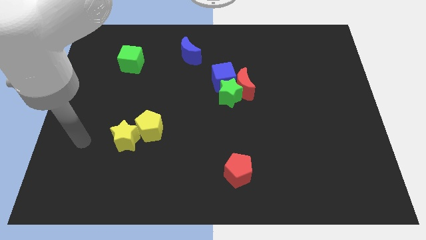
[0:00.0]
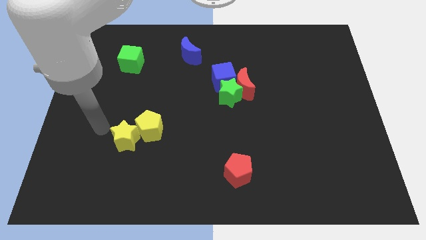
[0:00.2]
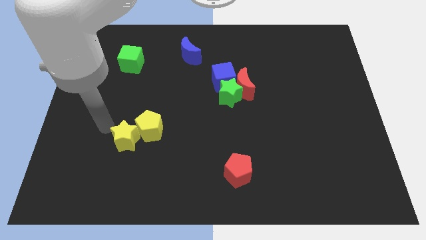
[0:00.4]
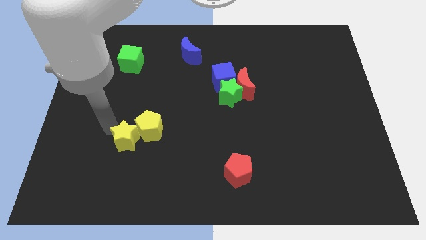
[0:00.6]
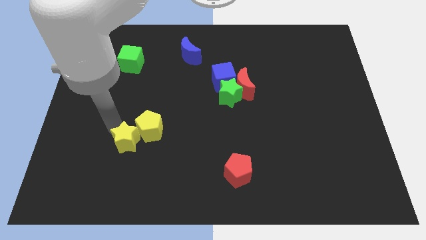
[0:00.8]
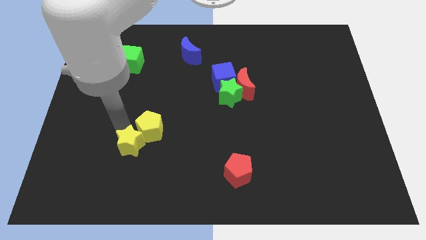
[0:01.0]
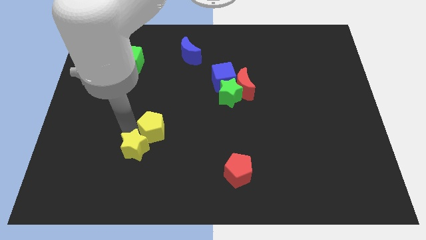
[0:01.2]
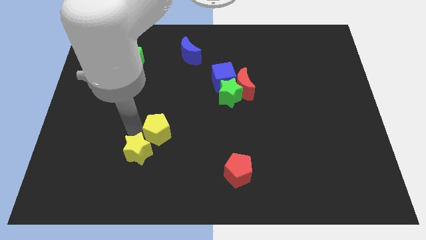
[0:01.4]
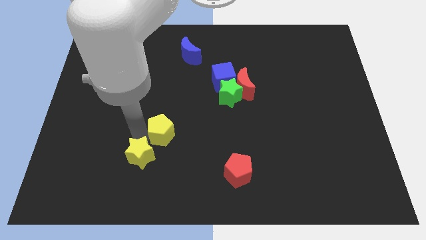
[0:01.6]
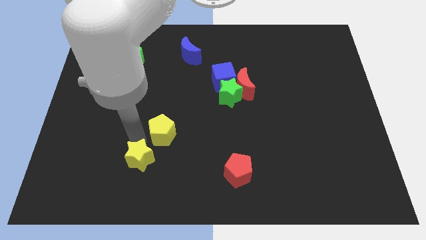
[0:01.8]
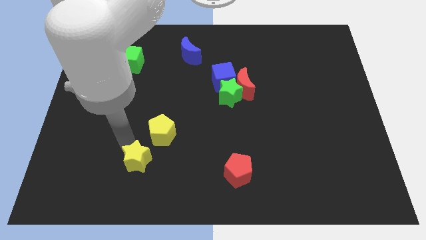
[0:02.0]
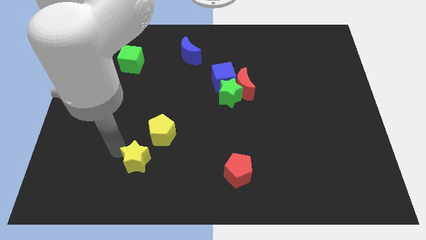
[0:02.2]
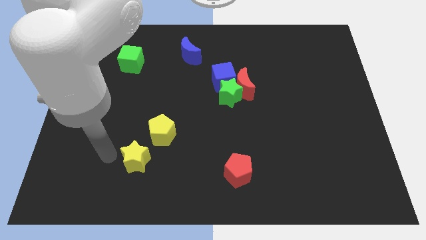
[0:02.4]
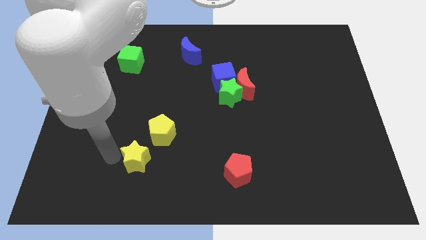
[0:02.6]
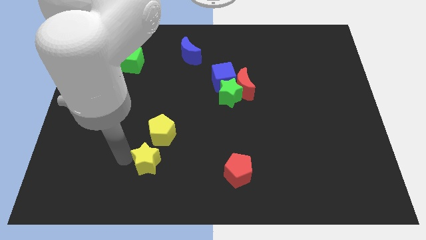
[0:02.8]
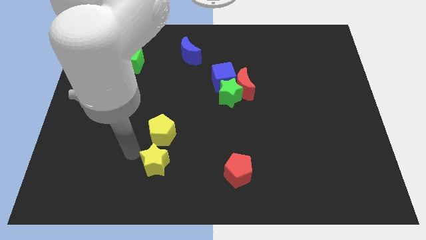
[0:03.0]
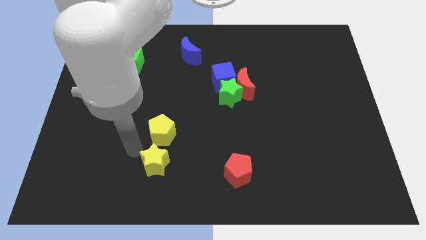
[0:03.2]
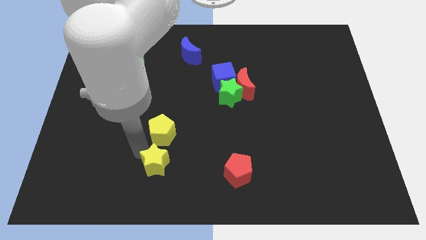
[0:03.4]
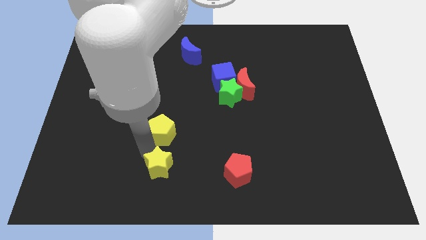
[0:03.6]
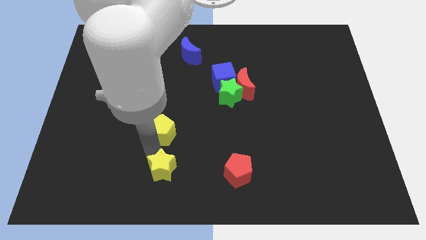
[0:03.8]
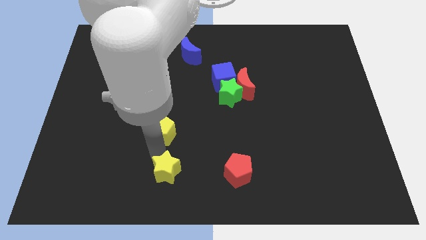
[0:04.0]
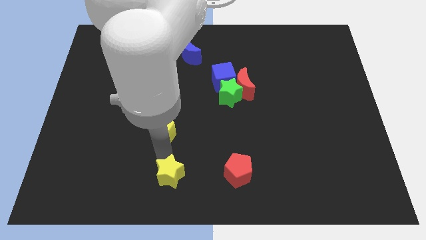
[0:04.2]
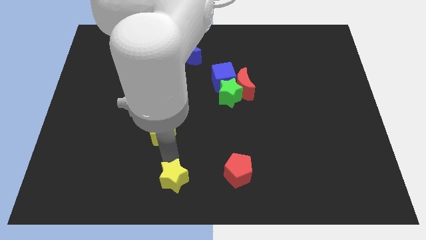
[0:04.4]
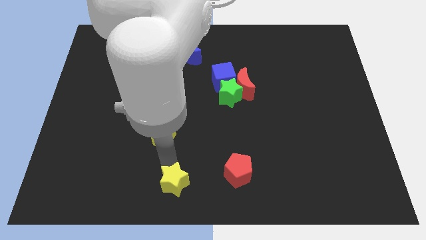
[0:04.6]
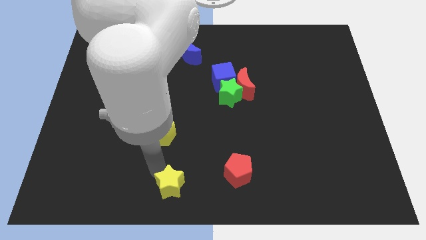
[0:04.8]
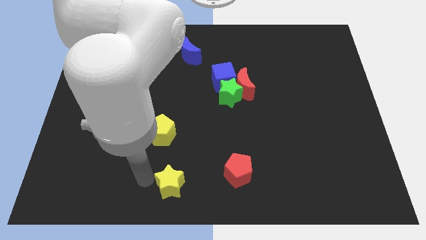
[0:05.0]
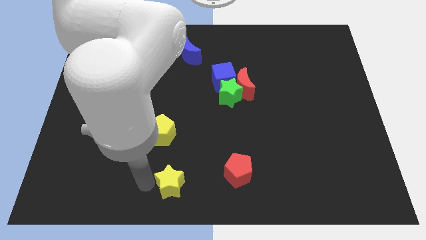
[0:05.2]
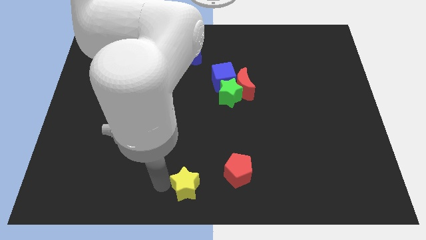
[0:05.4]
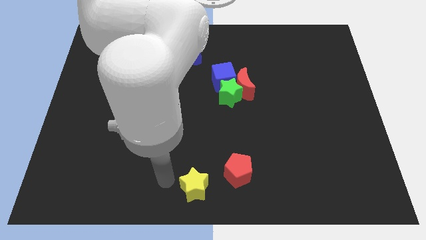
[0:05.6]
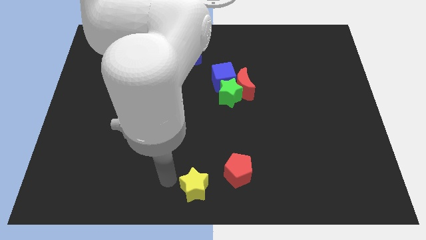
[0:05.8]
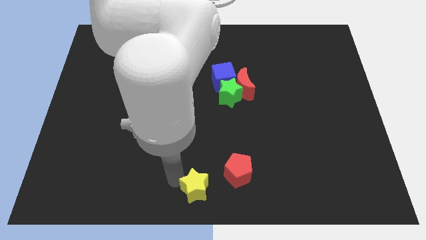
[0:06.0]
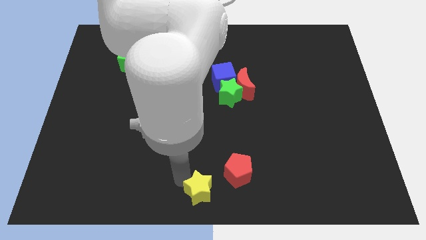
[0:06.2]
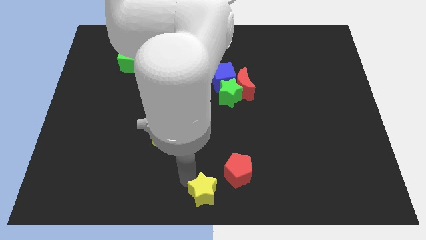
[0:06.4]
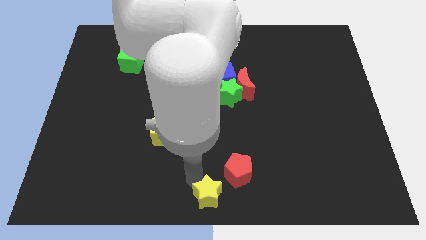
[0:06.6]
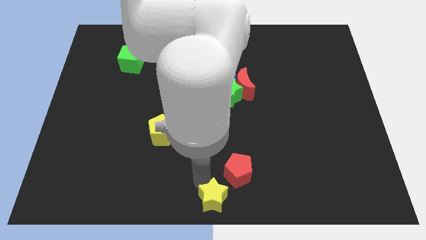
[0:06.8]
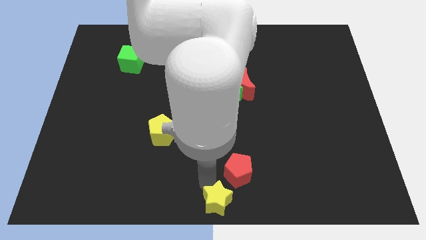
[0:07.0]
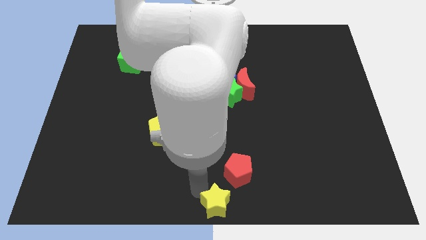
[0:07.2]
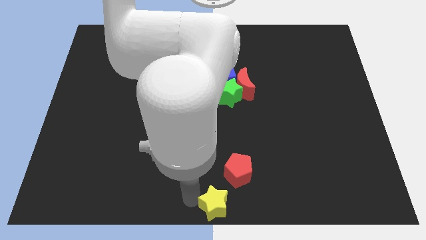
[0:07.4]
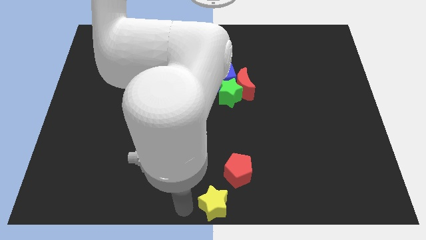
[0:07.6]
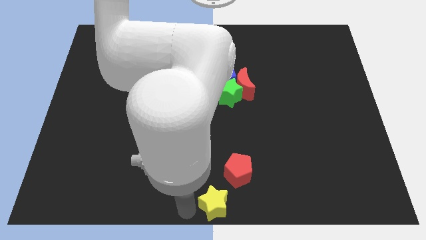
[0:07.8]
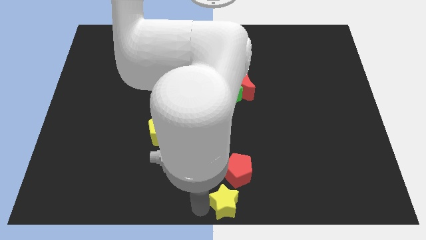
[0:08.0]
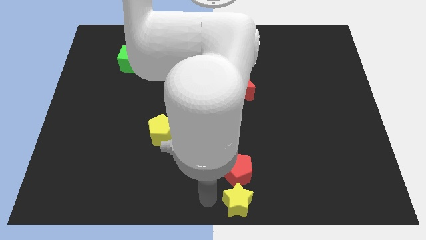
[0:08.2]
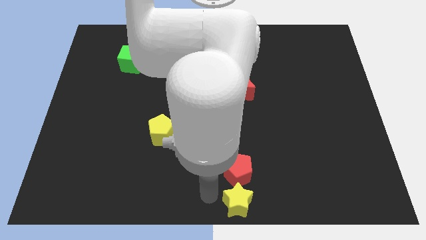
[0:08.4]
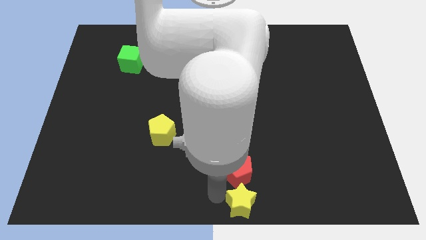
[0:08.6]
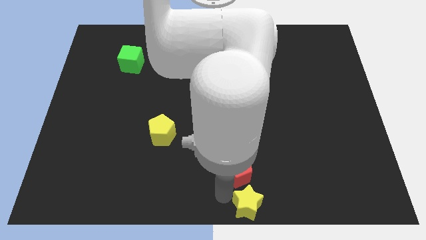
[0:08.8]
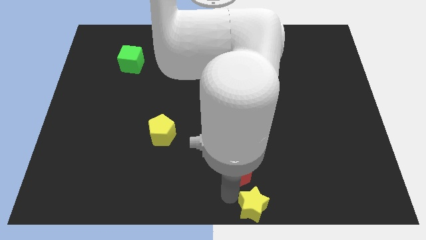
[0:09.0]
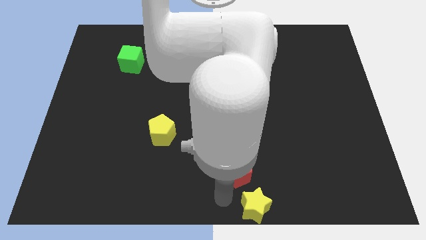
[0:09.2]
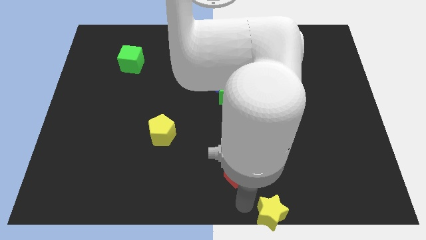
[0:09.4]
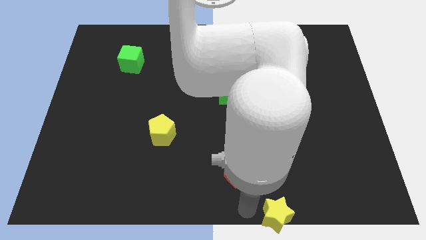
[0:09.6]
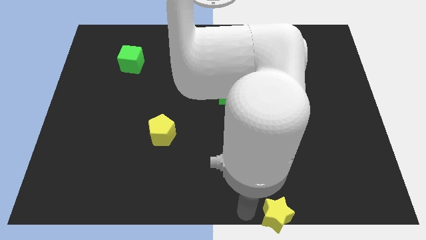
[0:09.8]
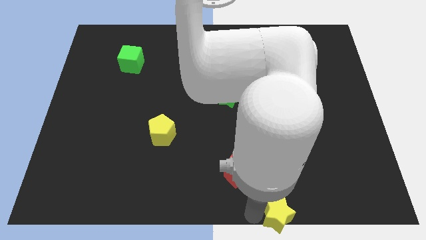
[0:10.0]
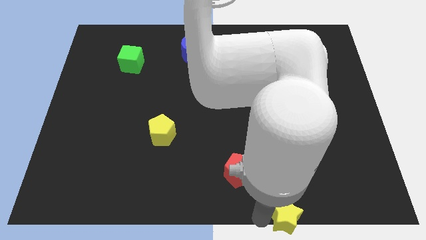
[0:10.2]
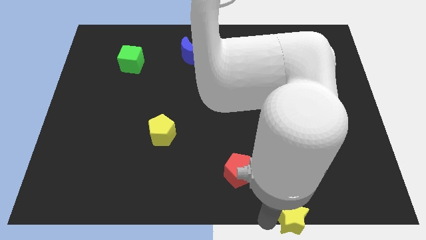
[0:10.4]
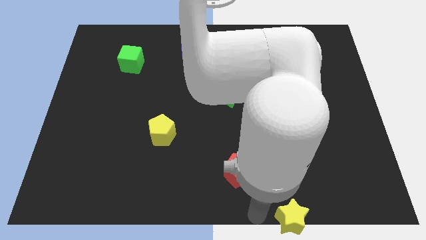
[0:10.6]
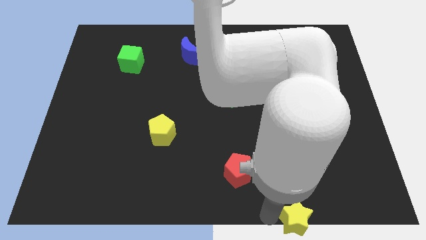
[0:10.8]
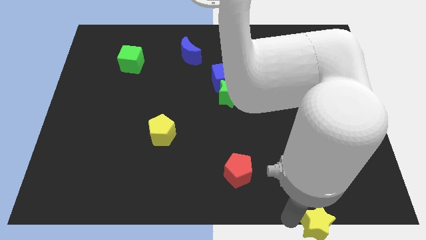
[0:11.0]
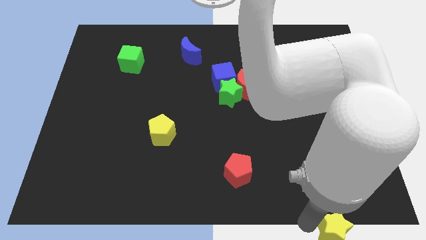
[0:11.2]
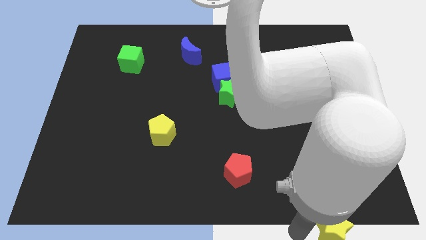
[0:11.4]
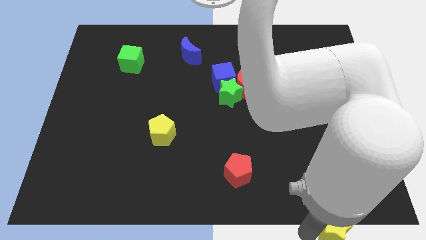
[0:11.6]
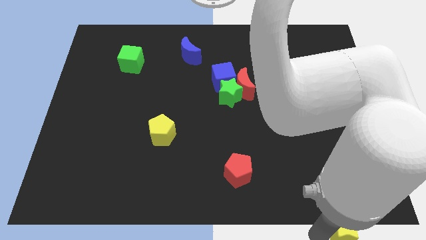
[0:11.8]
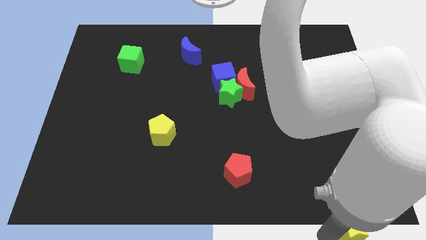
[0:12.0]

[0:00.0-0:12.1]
move the yellow star to the bottom right of the board

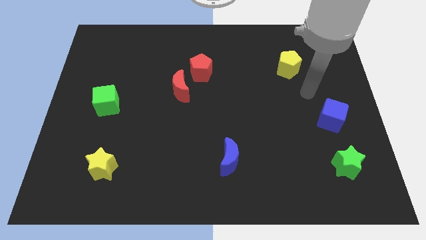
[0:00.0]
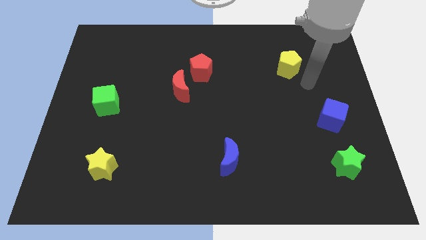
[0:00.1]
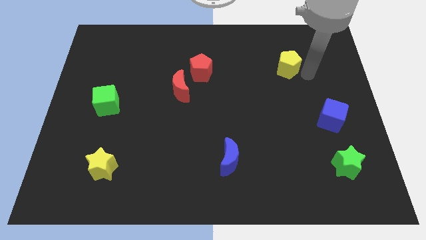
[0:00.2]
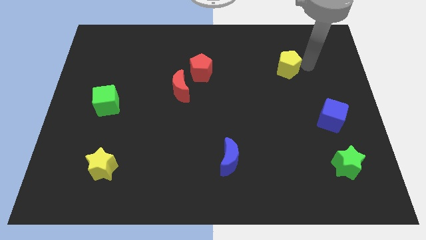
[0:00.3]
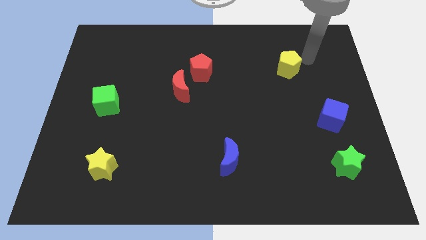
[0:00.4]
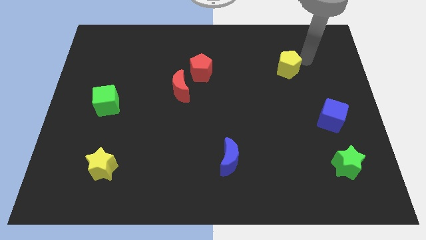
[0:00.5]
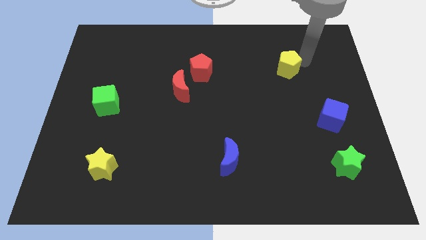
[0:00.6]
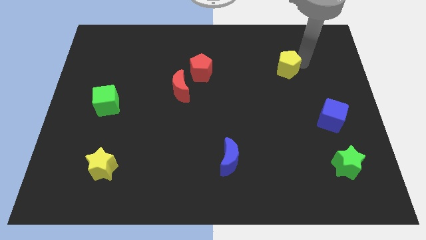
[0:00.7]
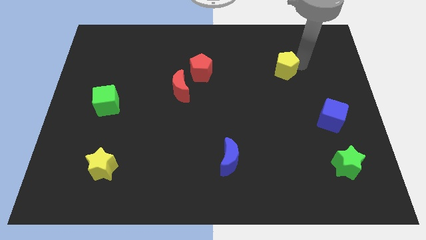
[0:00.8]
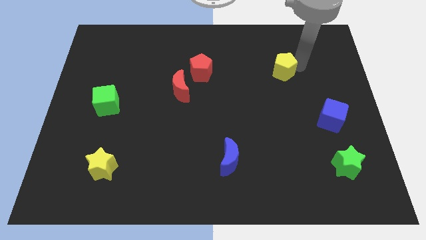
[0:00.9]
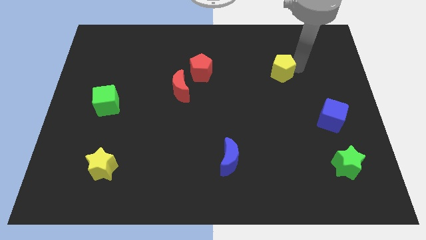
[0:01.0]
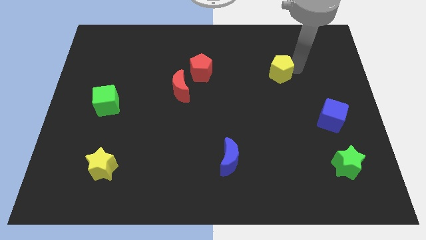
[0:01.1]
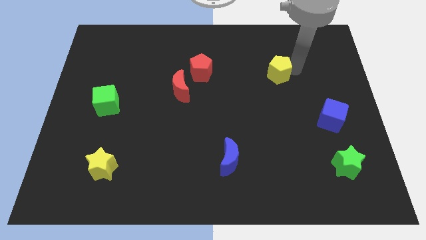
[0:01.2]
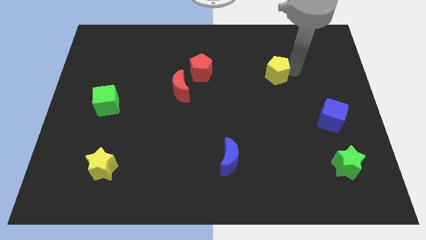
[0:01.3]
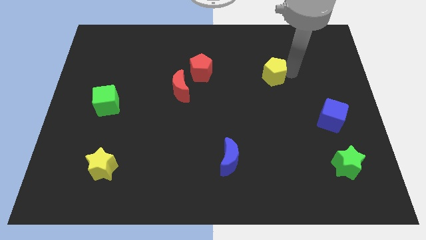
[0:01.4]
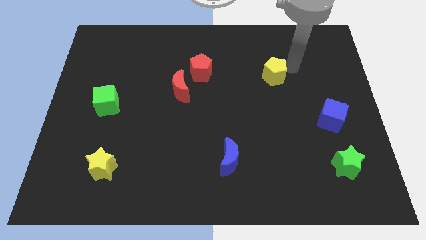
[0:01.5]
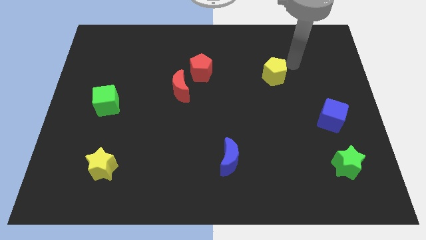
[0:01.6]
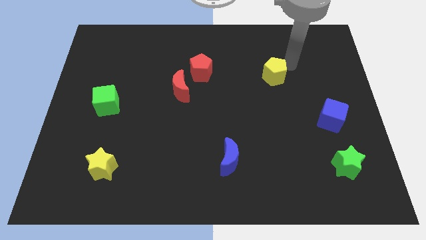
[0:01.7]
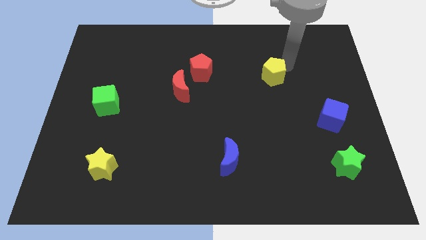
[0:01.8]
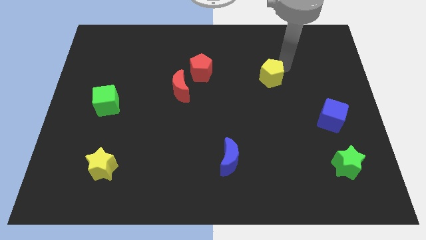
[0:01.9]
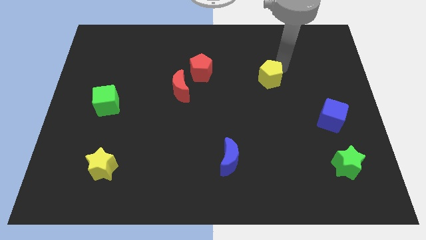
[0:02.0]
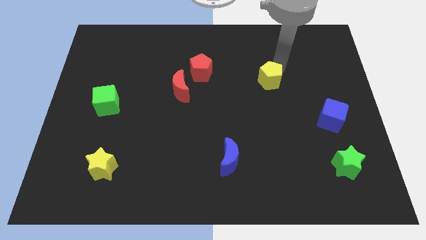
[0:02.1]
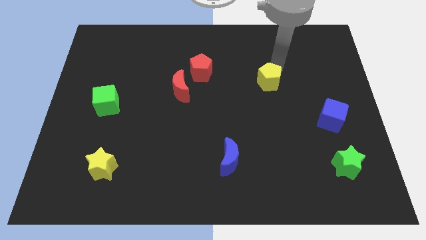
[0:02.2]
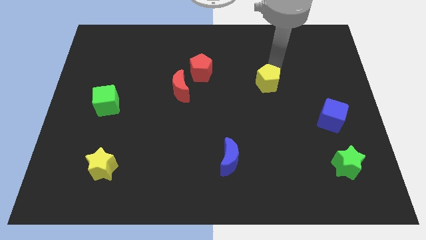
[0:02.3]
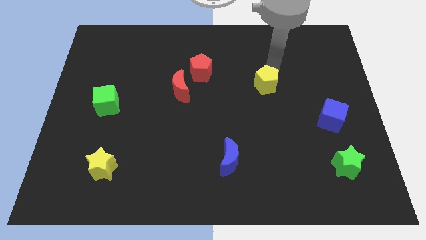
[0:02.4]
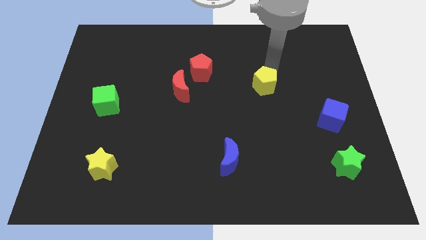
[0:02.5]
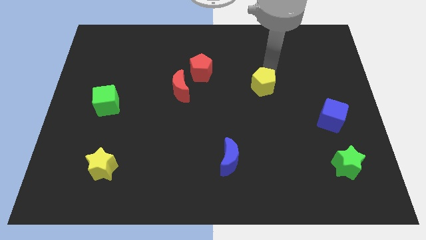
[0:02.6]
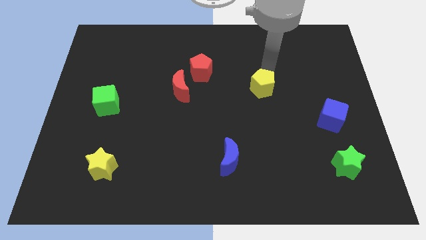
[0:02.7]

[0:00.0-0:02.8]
push the yellow pentagon to the center
